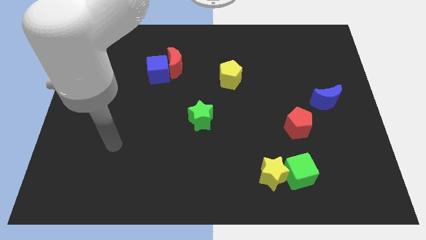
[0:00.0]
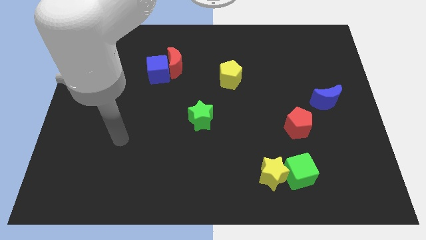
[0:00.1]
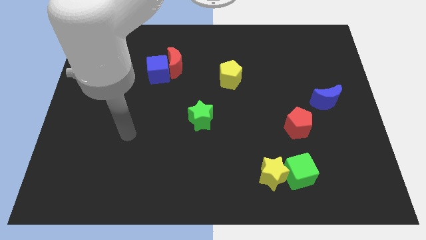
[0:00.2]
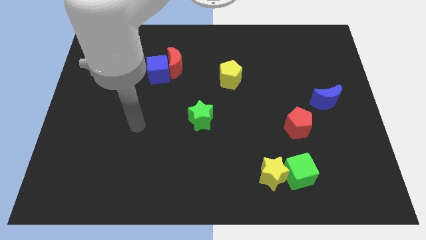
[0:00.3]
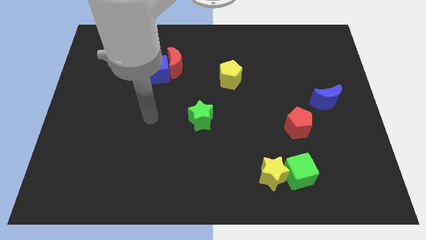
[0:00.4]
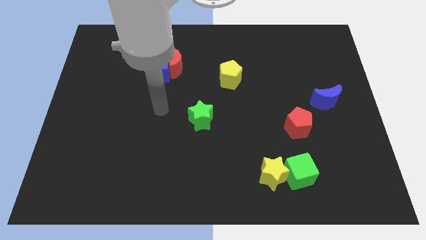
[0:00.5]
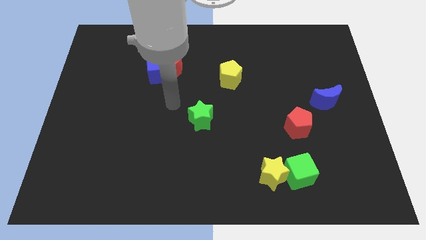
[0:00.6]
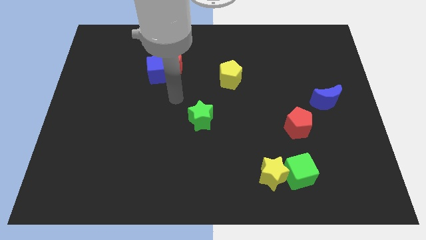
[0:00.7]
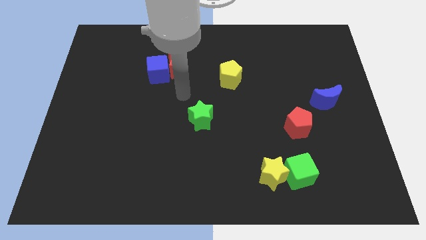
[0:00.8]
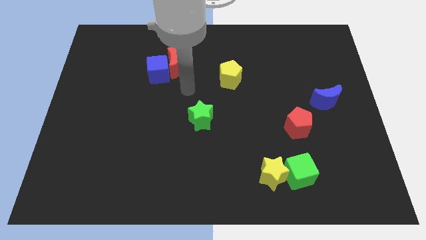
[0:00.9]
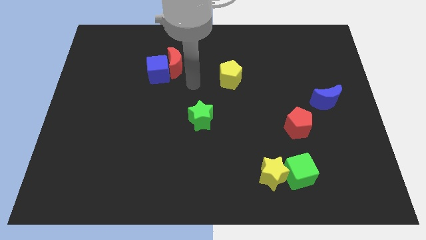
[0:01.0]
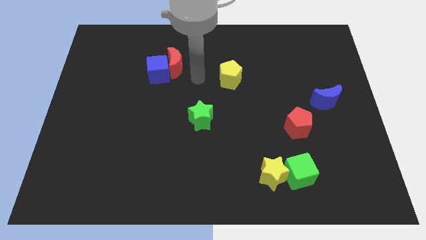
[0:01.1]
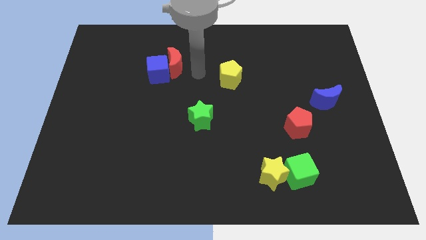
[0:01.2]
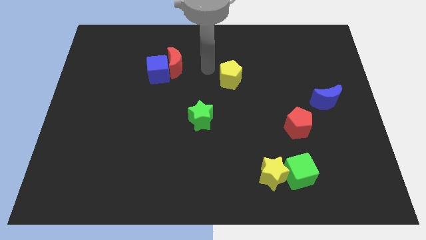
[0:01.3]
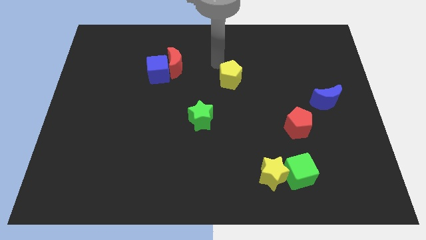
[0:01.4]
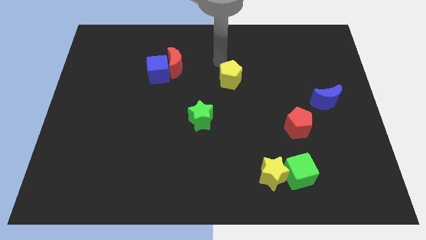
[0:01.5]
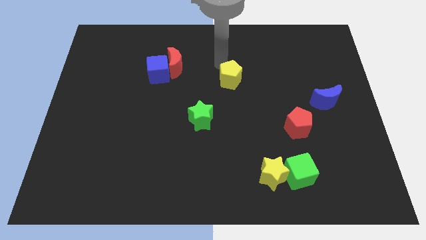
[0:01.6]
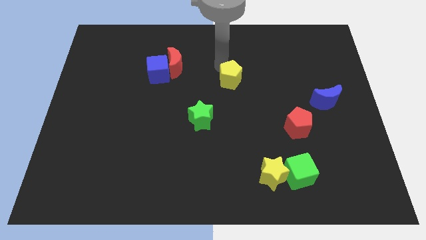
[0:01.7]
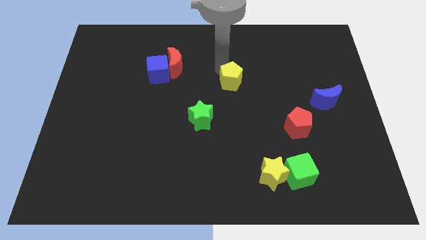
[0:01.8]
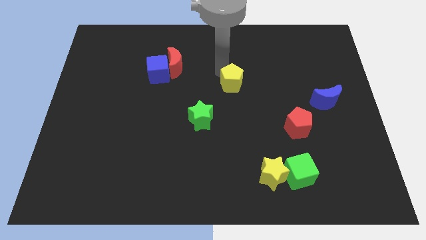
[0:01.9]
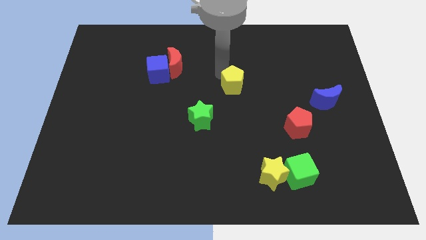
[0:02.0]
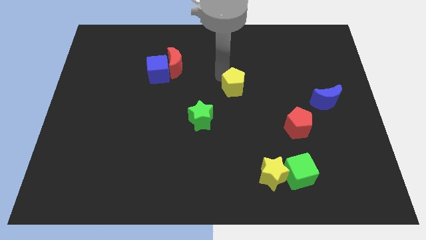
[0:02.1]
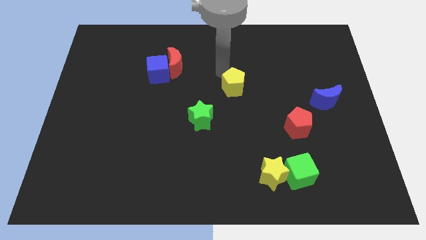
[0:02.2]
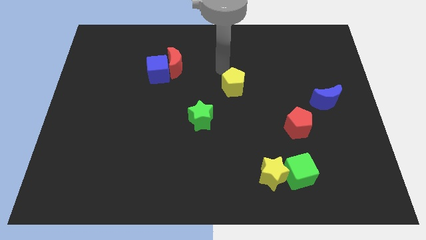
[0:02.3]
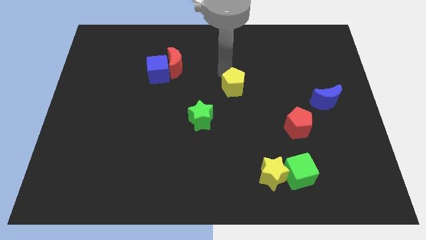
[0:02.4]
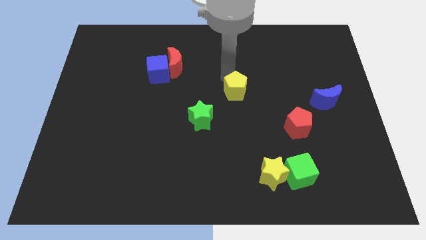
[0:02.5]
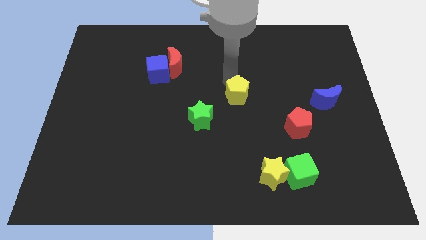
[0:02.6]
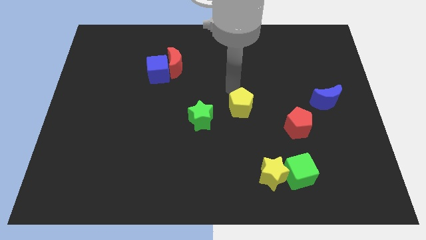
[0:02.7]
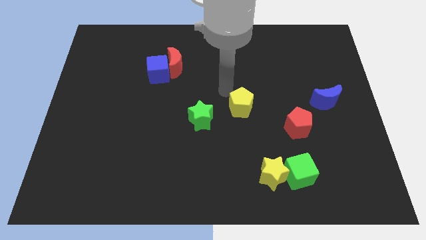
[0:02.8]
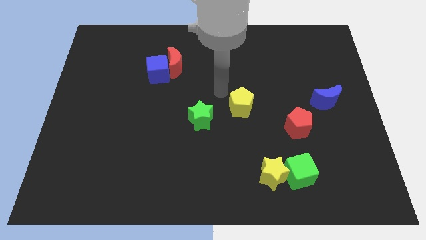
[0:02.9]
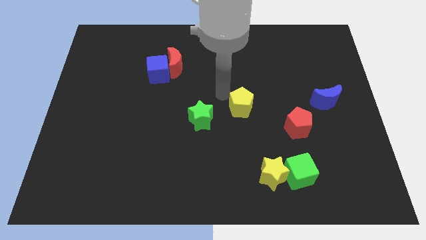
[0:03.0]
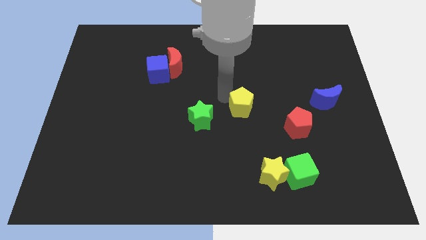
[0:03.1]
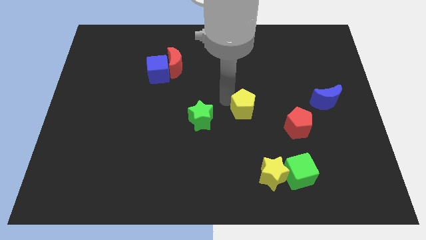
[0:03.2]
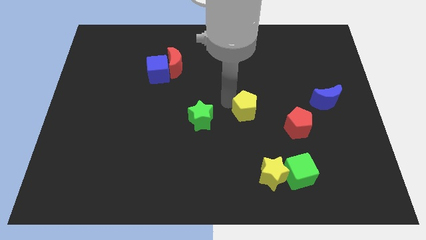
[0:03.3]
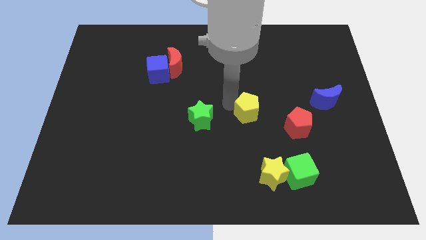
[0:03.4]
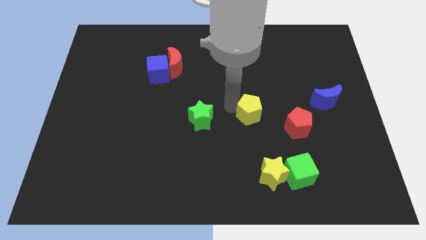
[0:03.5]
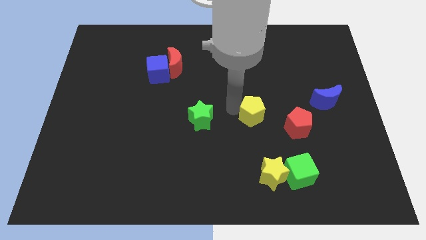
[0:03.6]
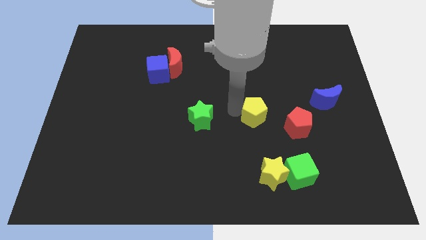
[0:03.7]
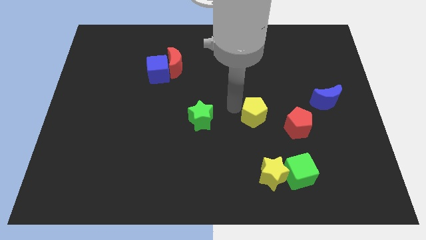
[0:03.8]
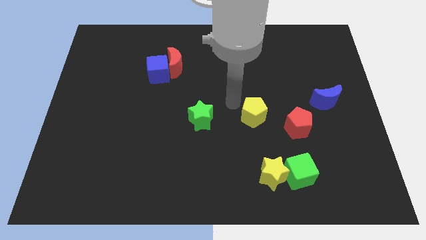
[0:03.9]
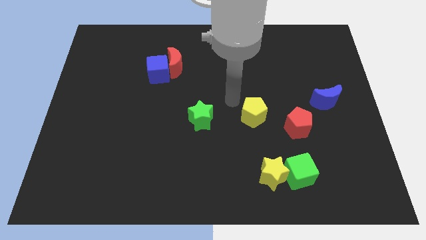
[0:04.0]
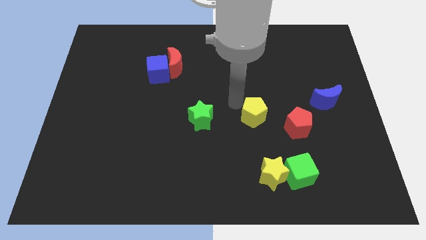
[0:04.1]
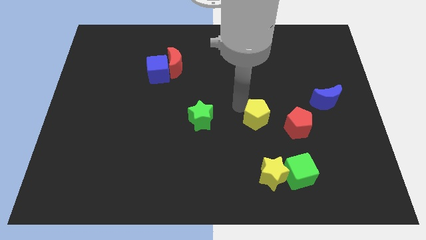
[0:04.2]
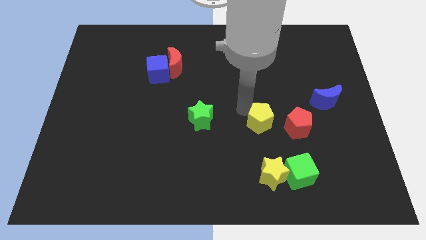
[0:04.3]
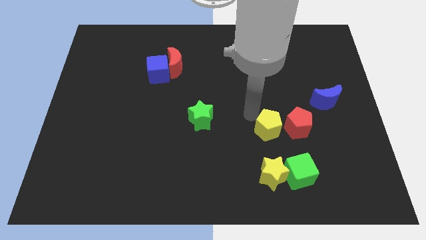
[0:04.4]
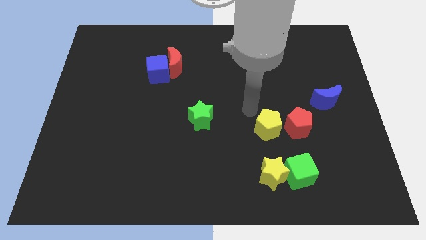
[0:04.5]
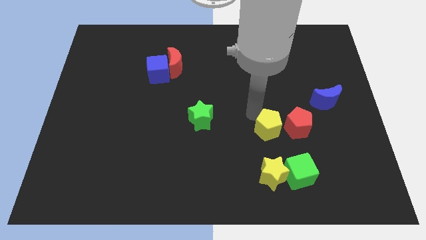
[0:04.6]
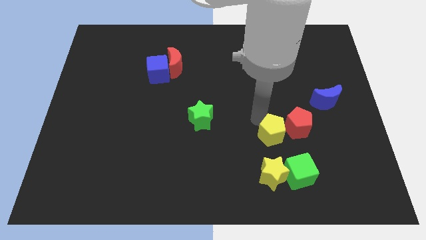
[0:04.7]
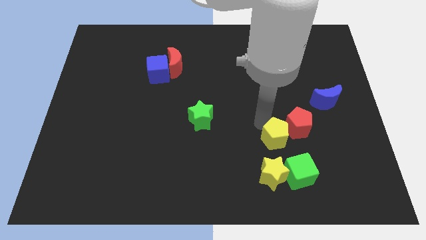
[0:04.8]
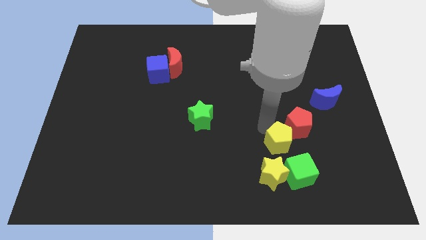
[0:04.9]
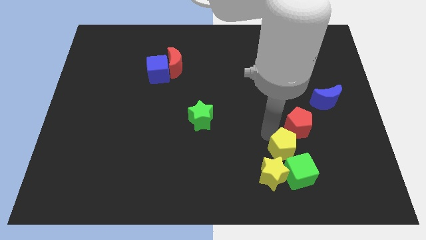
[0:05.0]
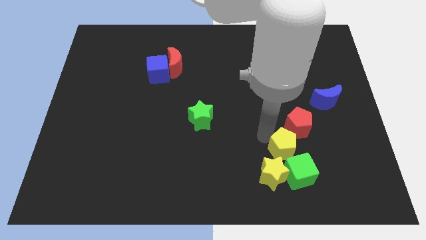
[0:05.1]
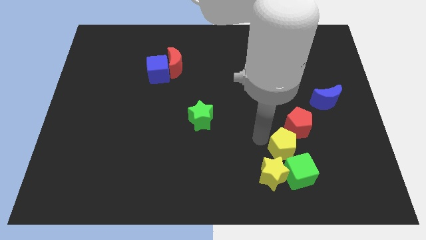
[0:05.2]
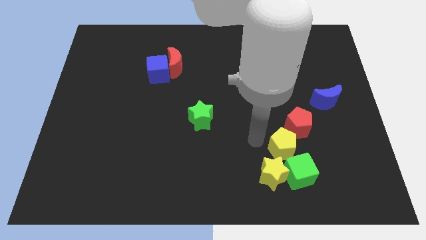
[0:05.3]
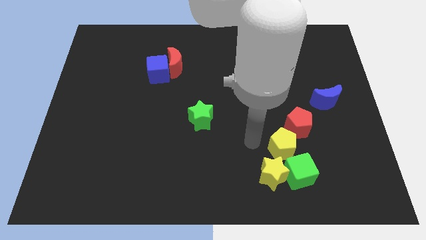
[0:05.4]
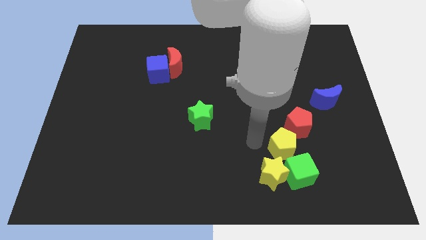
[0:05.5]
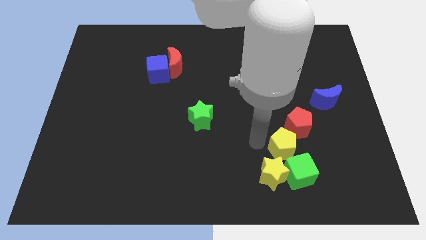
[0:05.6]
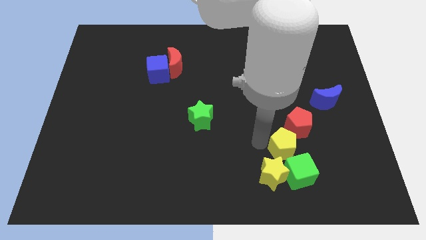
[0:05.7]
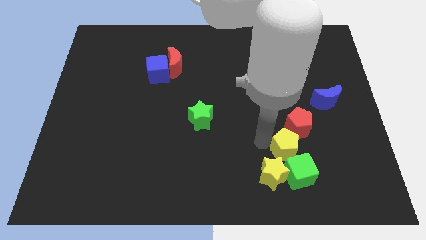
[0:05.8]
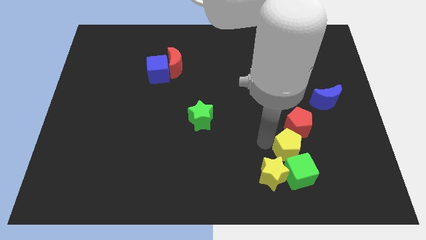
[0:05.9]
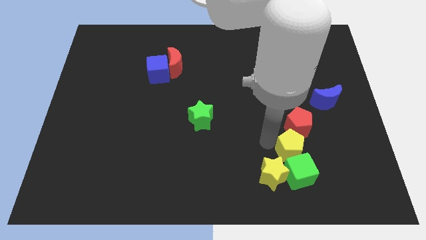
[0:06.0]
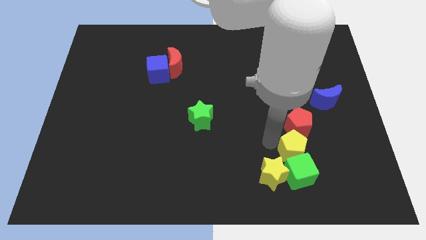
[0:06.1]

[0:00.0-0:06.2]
put the yellow pentagon to the top right of the green cube

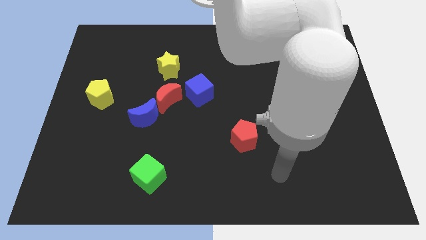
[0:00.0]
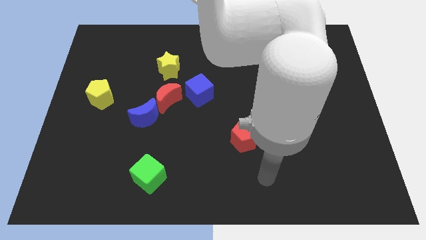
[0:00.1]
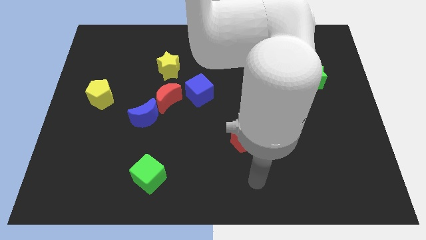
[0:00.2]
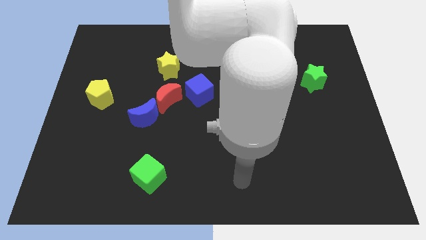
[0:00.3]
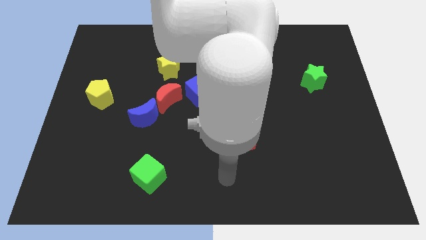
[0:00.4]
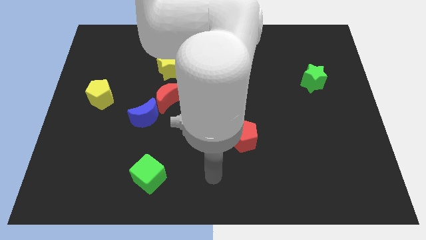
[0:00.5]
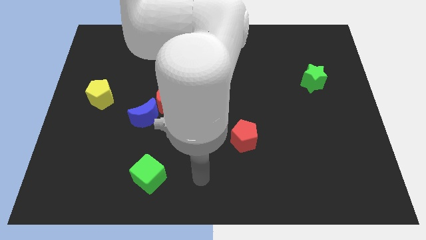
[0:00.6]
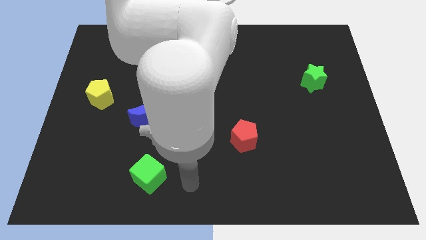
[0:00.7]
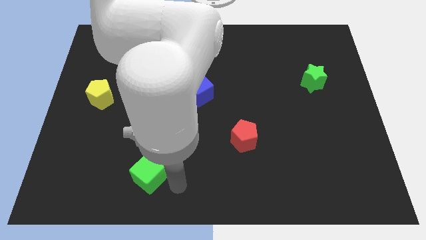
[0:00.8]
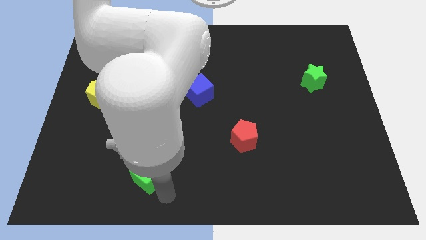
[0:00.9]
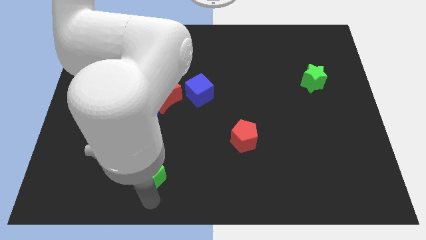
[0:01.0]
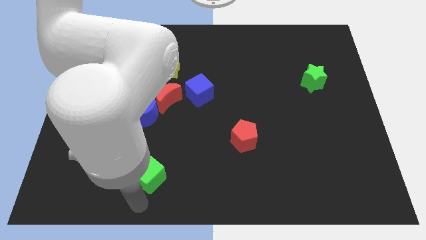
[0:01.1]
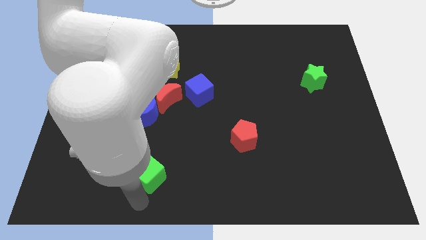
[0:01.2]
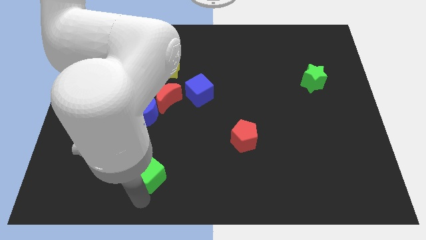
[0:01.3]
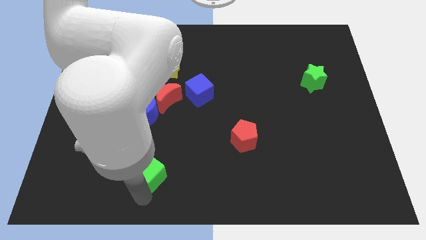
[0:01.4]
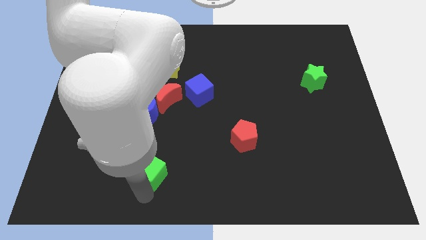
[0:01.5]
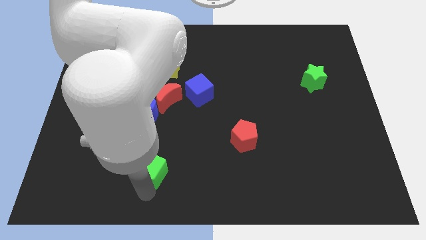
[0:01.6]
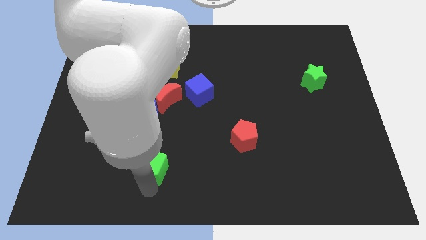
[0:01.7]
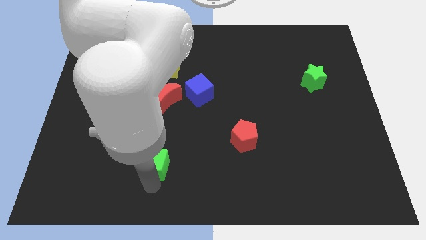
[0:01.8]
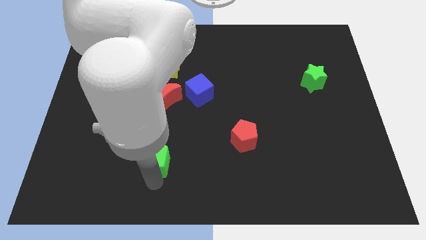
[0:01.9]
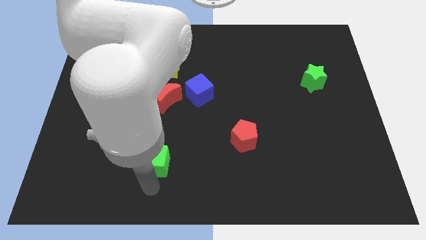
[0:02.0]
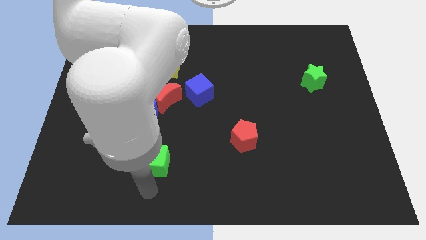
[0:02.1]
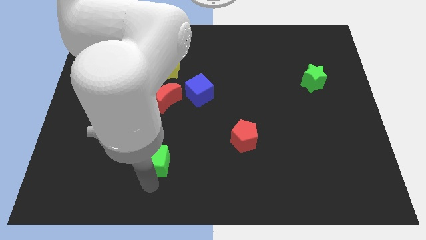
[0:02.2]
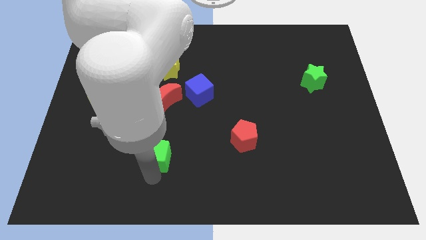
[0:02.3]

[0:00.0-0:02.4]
push the green cube below the red moon
